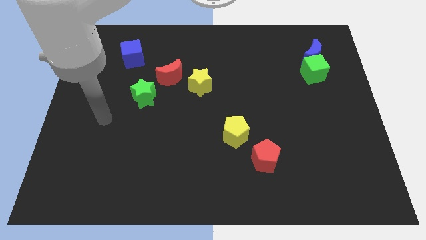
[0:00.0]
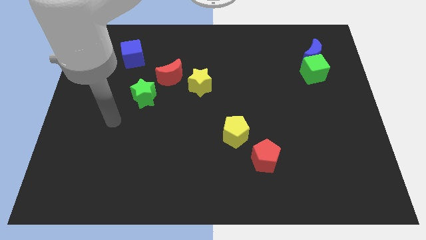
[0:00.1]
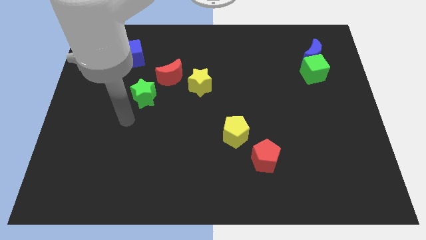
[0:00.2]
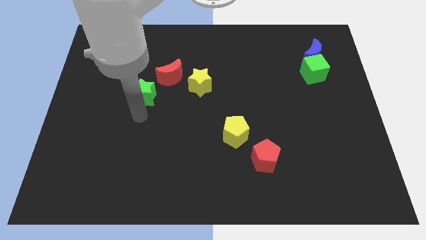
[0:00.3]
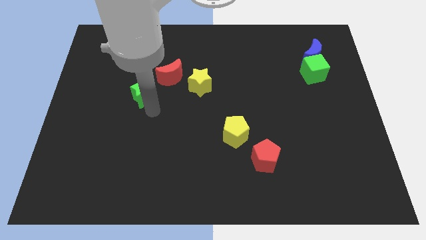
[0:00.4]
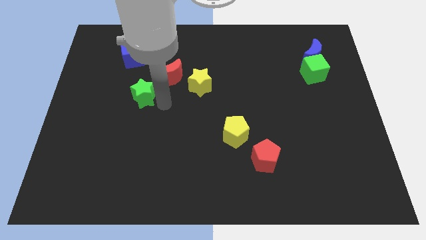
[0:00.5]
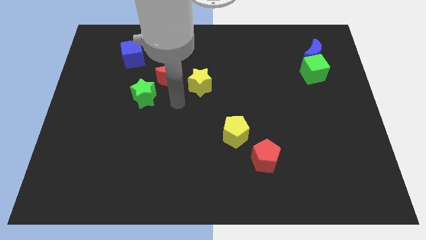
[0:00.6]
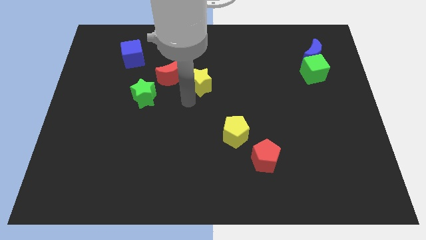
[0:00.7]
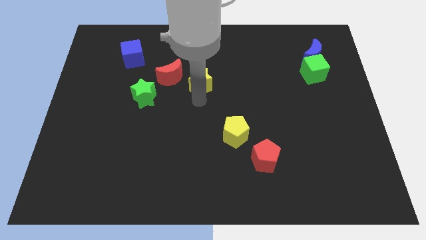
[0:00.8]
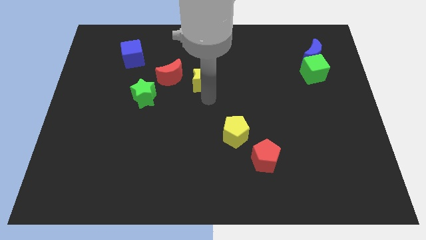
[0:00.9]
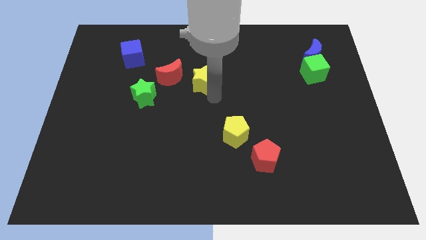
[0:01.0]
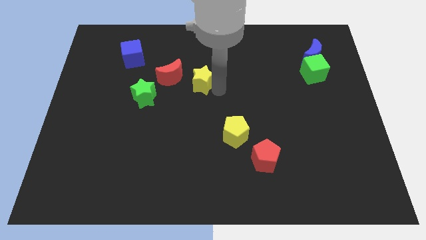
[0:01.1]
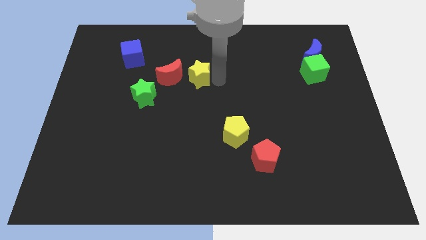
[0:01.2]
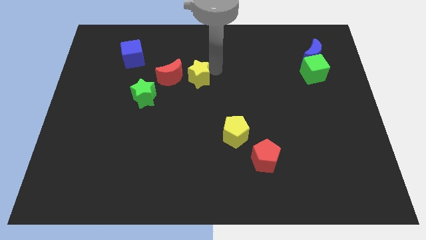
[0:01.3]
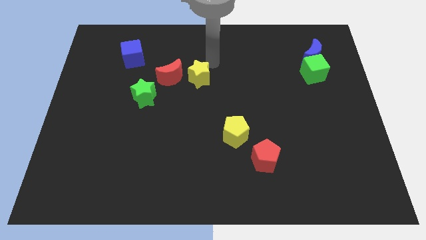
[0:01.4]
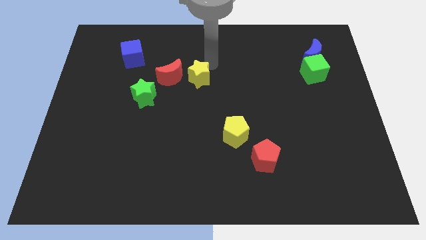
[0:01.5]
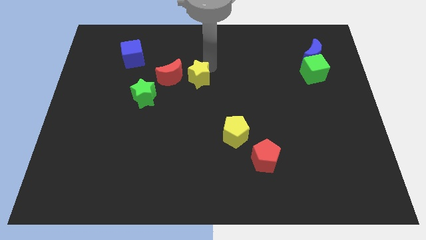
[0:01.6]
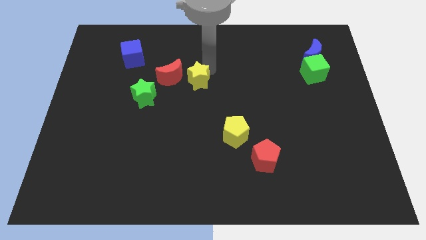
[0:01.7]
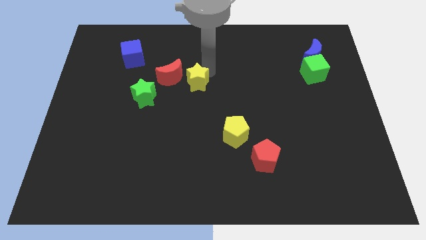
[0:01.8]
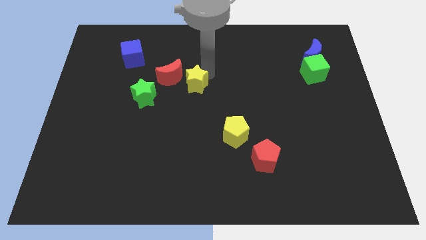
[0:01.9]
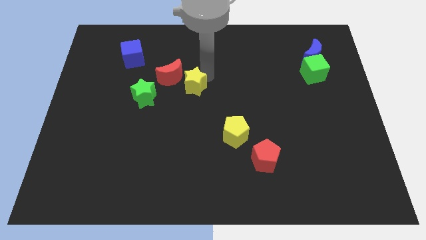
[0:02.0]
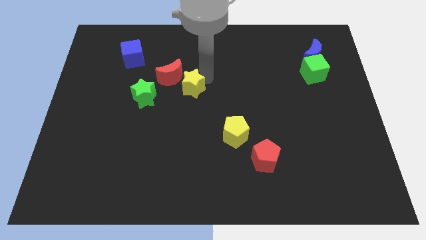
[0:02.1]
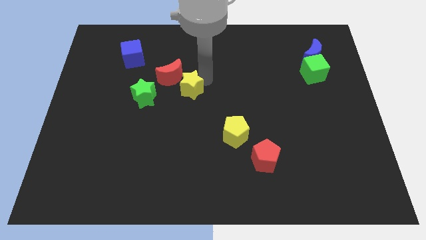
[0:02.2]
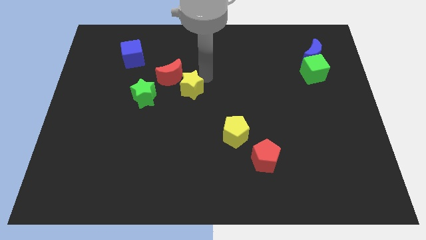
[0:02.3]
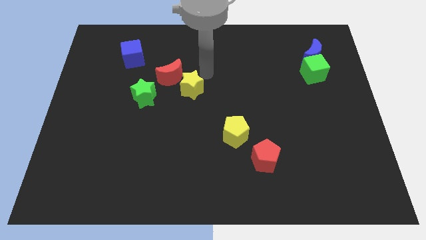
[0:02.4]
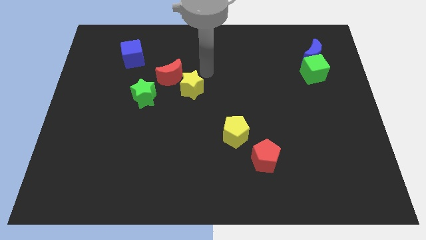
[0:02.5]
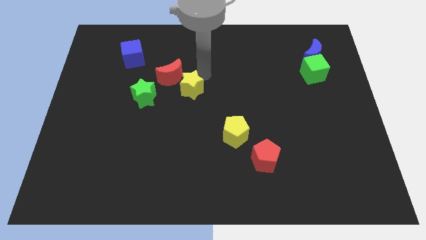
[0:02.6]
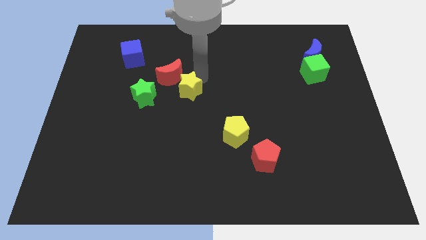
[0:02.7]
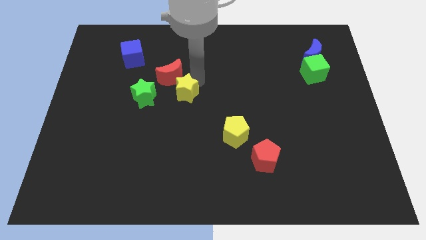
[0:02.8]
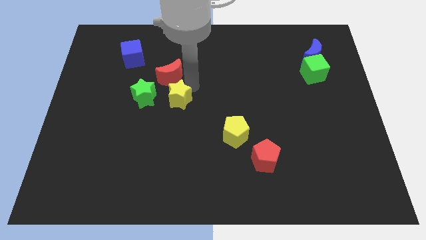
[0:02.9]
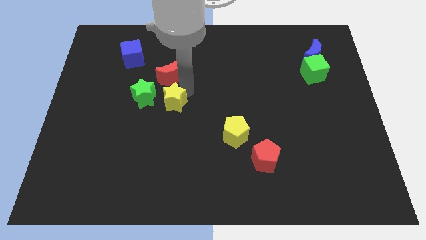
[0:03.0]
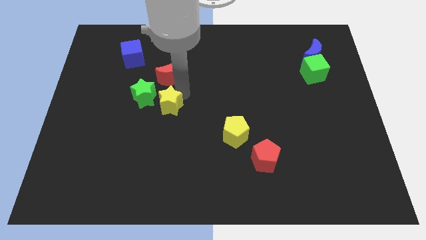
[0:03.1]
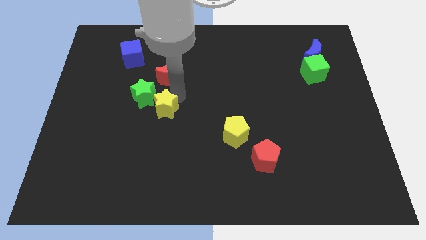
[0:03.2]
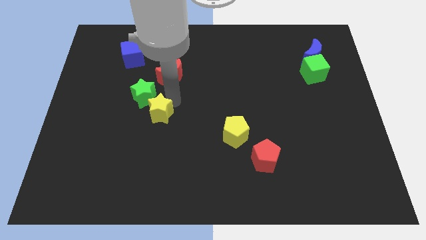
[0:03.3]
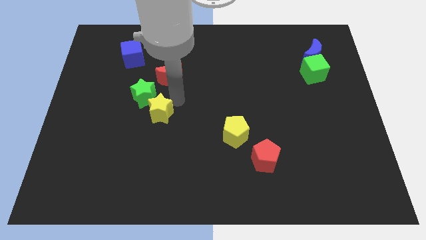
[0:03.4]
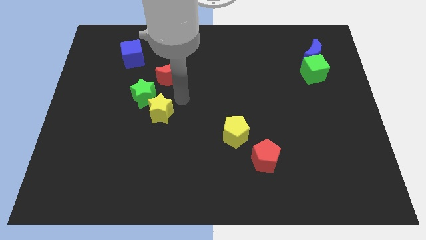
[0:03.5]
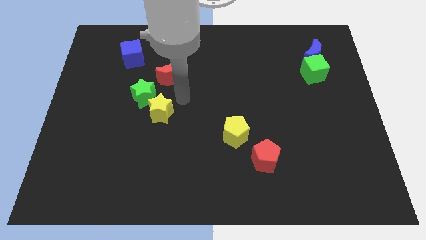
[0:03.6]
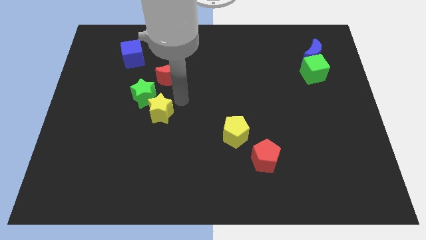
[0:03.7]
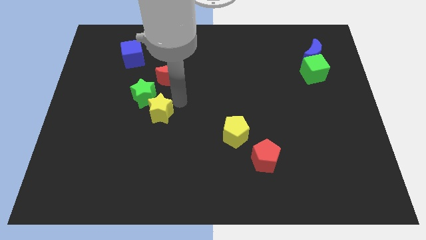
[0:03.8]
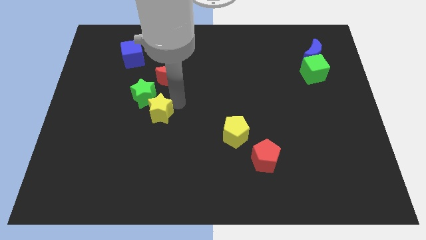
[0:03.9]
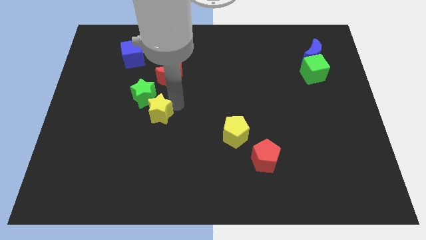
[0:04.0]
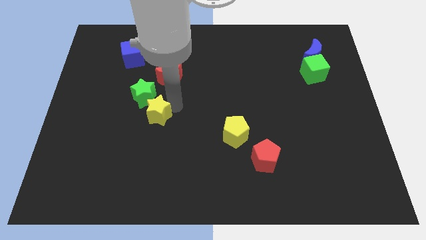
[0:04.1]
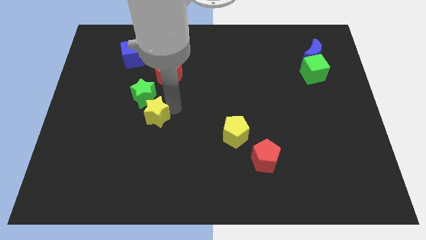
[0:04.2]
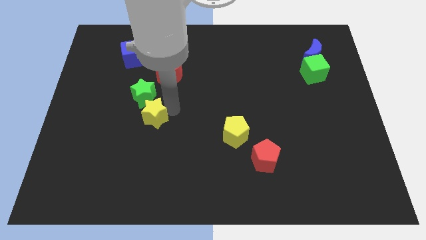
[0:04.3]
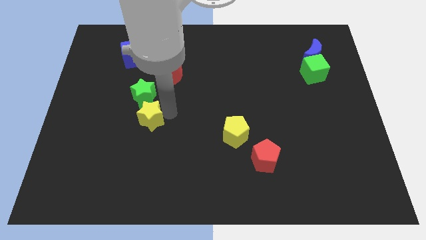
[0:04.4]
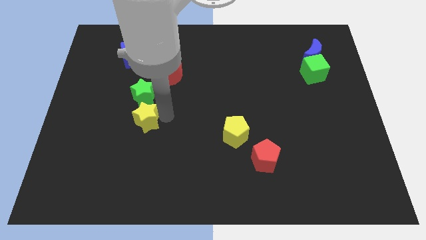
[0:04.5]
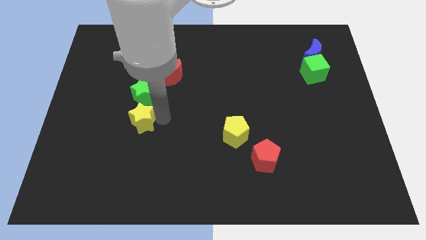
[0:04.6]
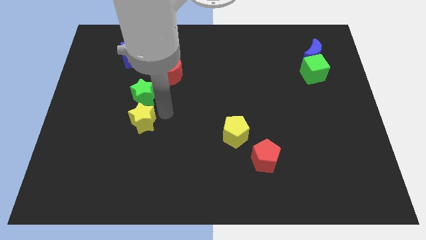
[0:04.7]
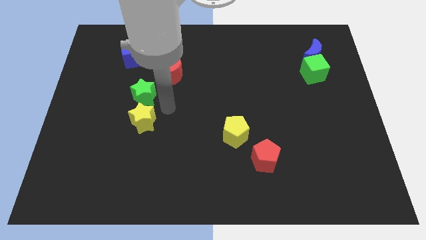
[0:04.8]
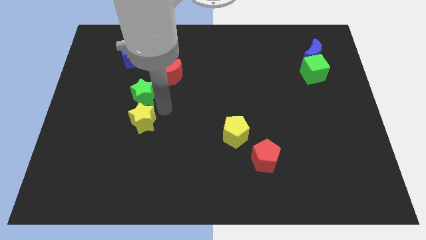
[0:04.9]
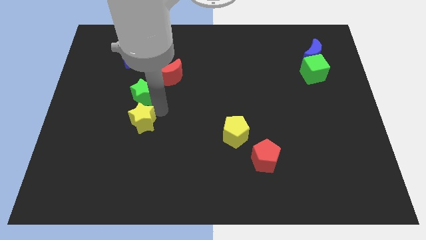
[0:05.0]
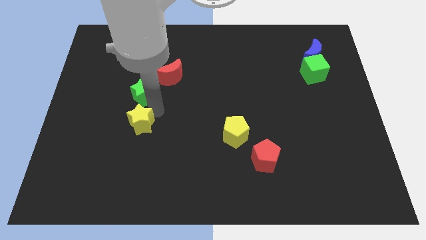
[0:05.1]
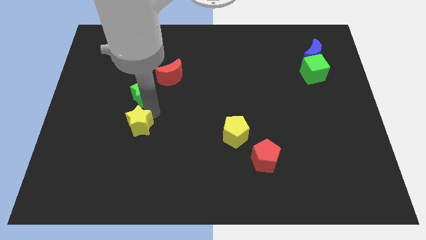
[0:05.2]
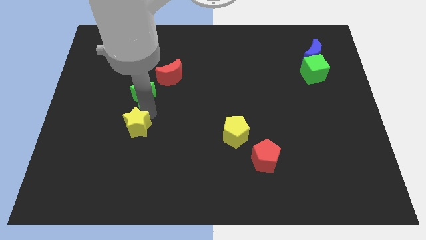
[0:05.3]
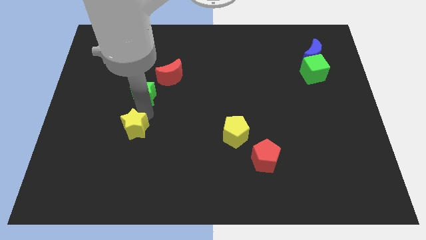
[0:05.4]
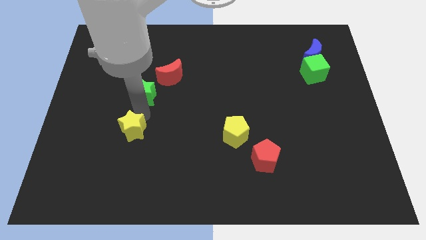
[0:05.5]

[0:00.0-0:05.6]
slide the yellow star diagonally down and left

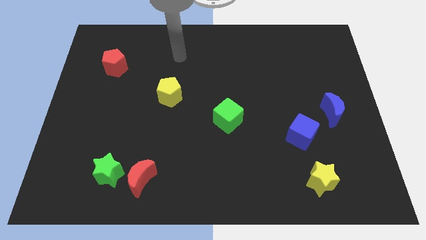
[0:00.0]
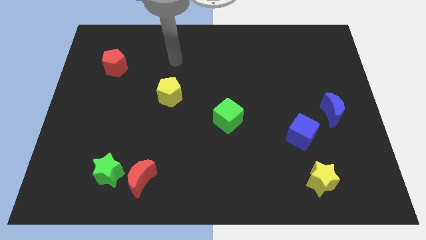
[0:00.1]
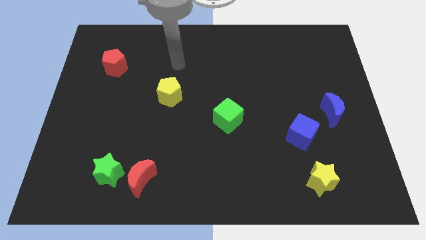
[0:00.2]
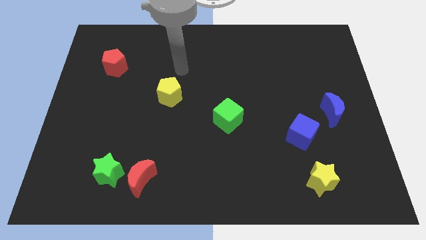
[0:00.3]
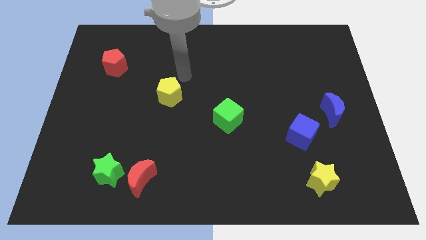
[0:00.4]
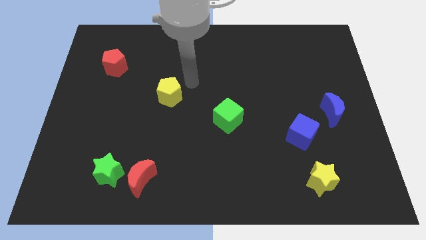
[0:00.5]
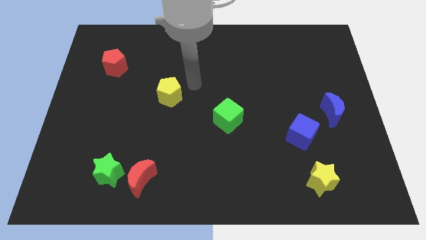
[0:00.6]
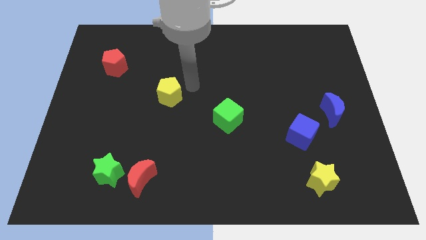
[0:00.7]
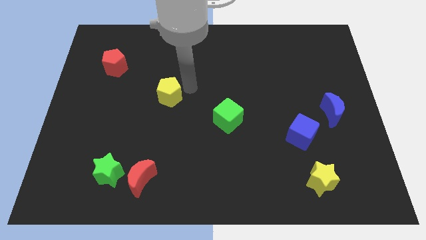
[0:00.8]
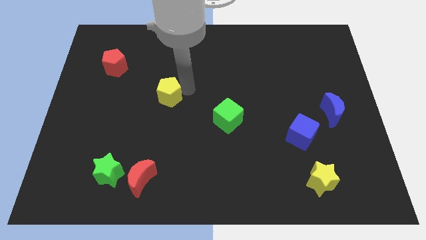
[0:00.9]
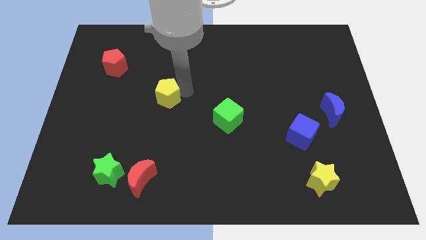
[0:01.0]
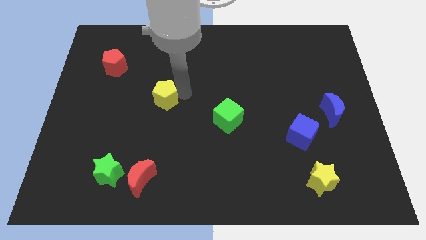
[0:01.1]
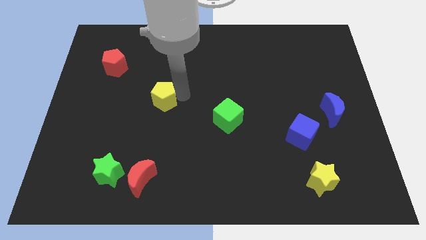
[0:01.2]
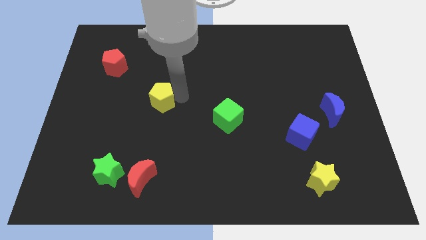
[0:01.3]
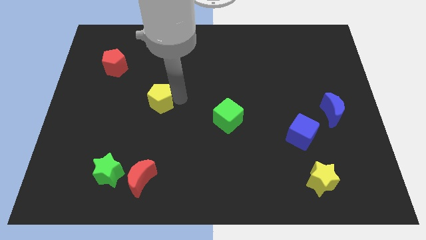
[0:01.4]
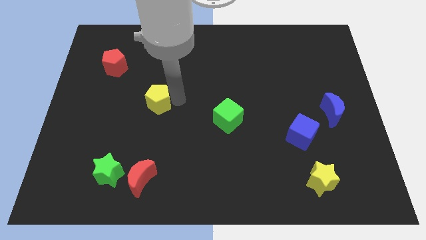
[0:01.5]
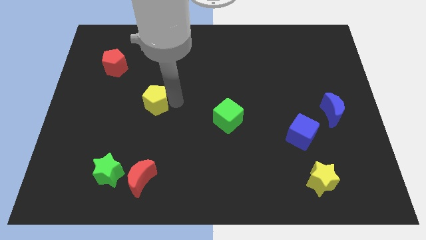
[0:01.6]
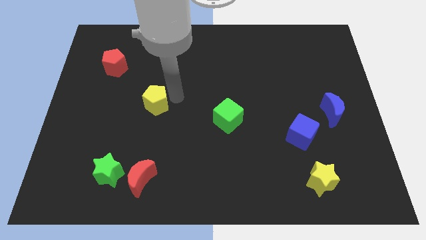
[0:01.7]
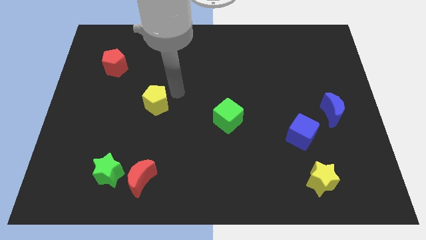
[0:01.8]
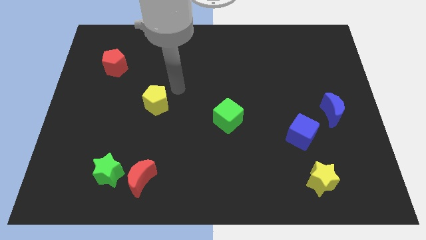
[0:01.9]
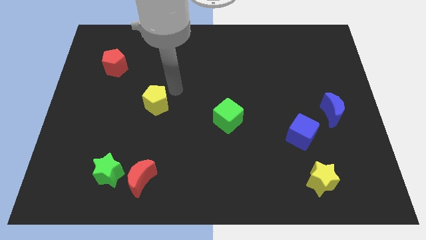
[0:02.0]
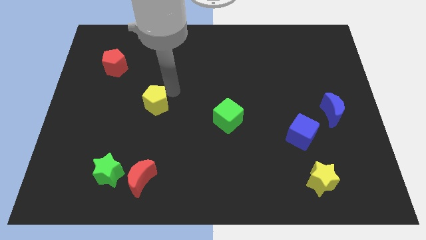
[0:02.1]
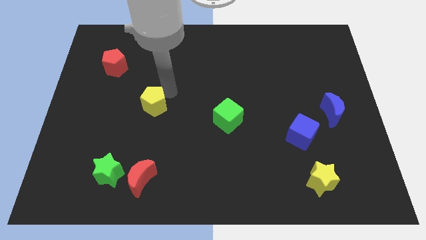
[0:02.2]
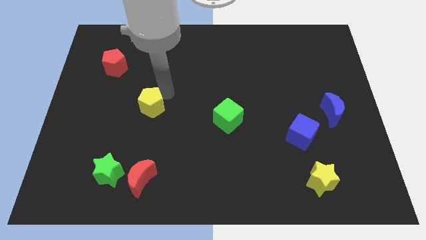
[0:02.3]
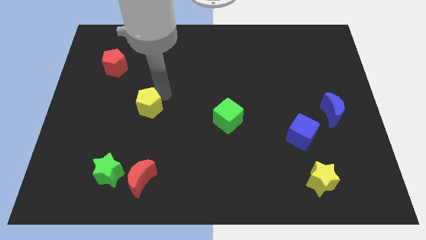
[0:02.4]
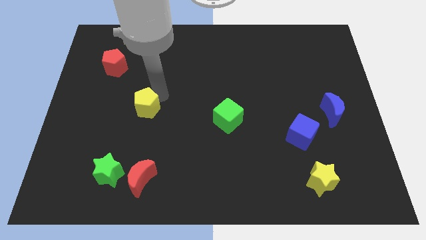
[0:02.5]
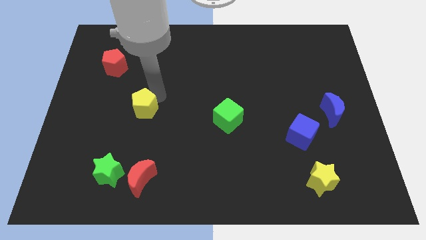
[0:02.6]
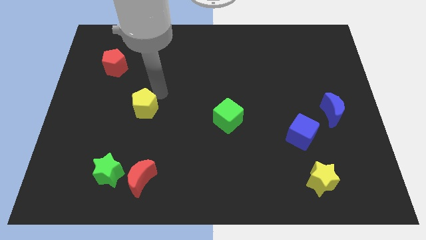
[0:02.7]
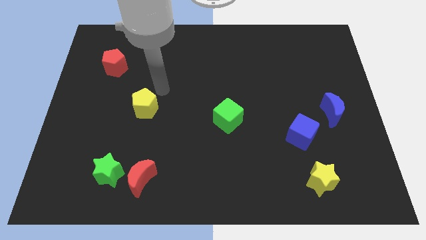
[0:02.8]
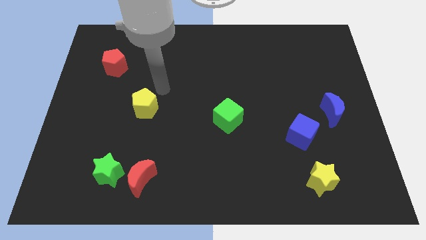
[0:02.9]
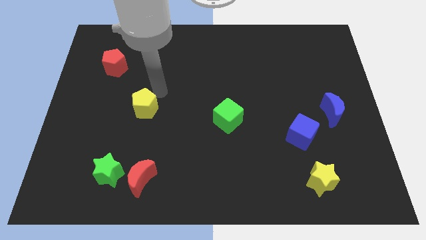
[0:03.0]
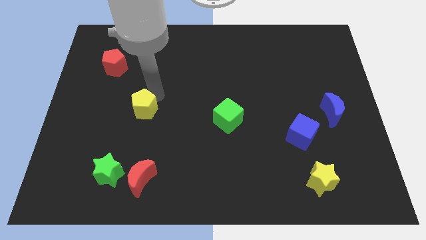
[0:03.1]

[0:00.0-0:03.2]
push the yellow pentagon downwards and left somewhat
